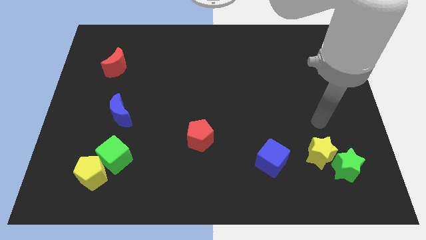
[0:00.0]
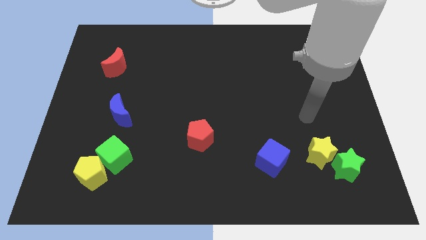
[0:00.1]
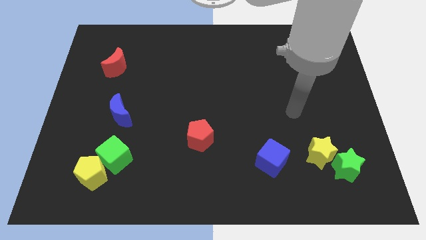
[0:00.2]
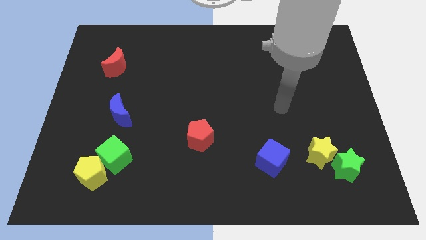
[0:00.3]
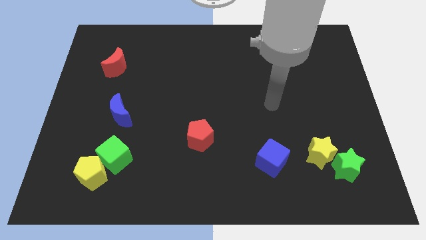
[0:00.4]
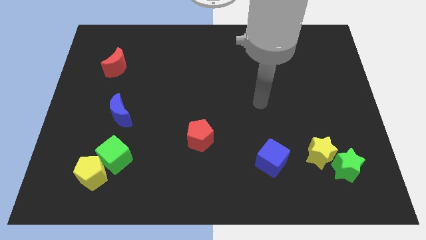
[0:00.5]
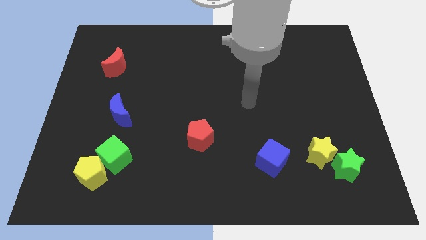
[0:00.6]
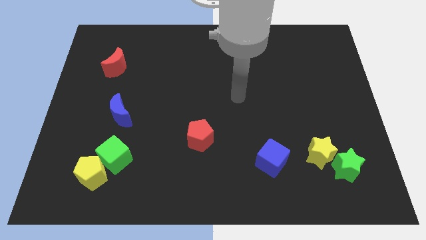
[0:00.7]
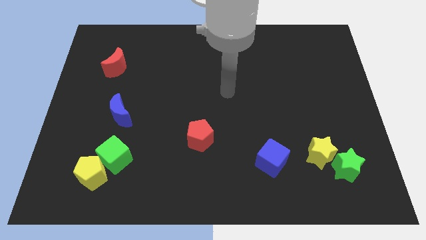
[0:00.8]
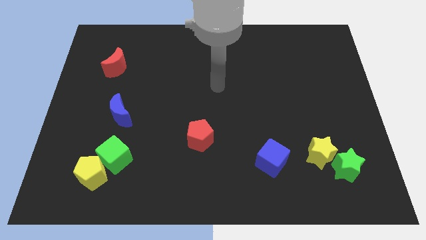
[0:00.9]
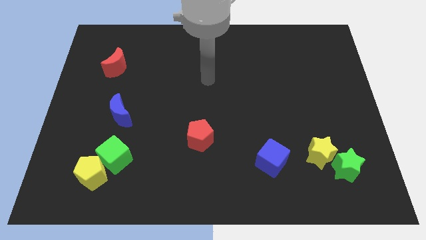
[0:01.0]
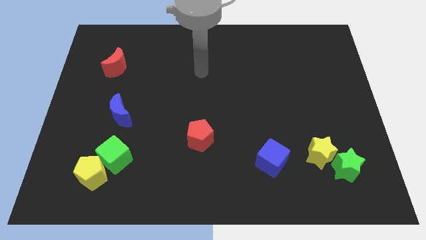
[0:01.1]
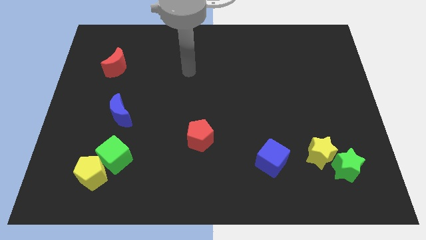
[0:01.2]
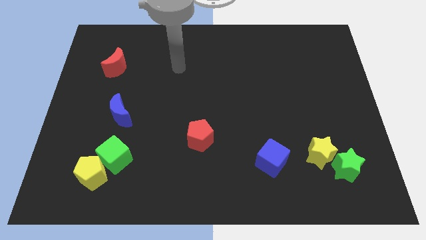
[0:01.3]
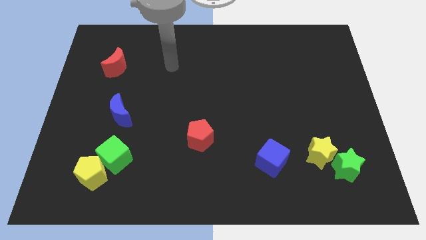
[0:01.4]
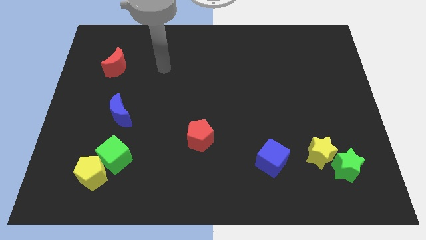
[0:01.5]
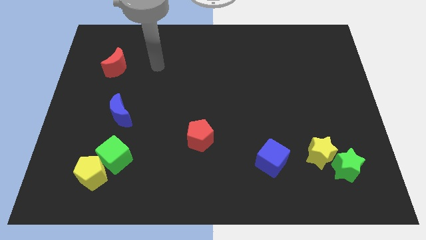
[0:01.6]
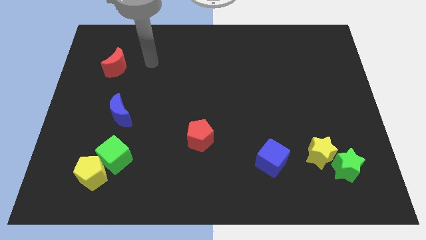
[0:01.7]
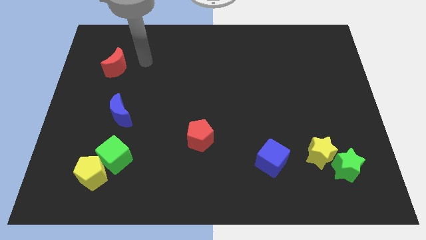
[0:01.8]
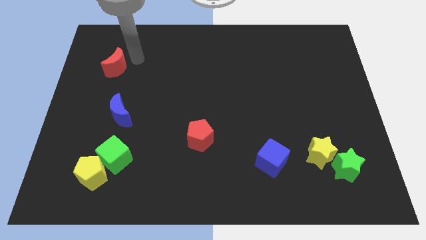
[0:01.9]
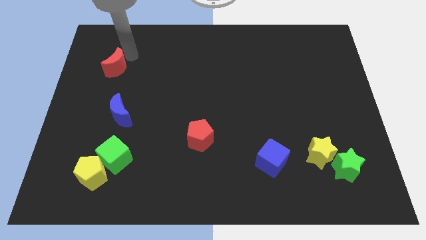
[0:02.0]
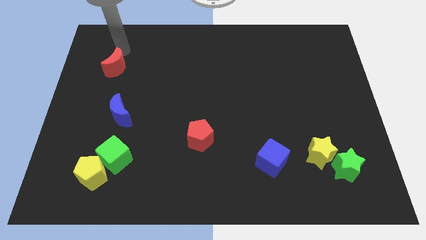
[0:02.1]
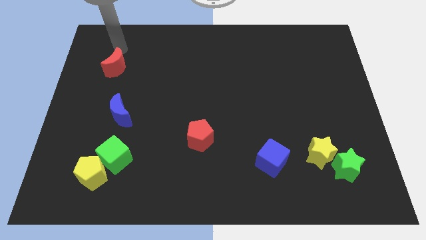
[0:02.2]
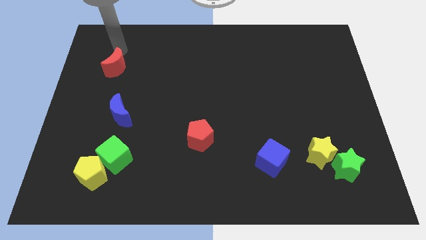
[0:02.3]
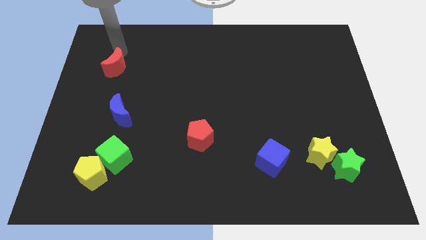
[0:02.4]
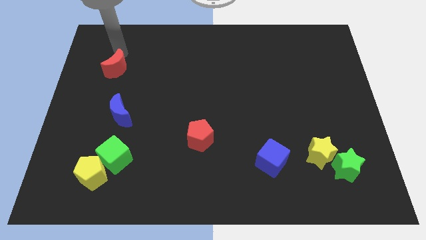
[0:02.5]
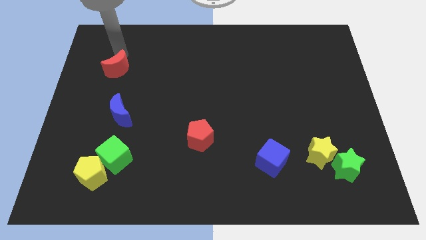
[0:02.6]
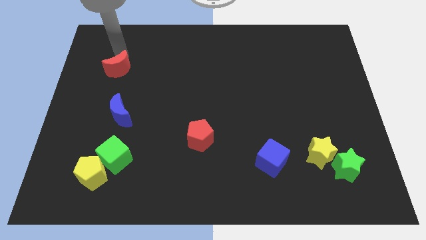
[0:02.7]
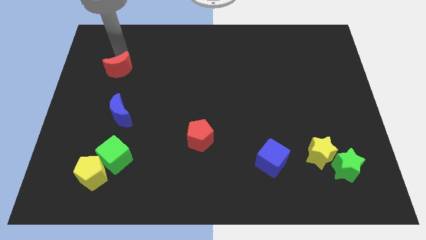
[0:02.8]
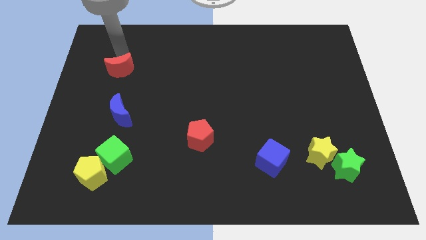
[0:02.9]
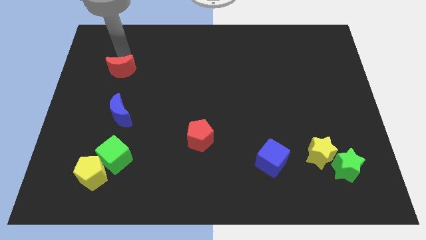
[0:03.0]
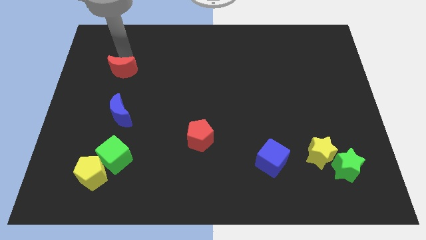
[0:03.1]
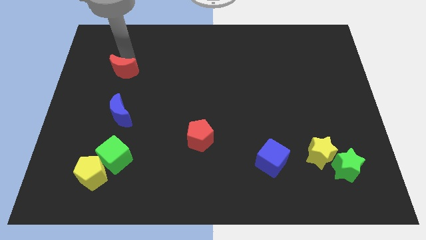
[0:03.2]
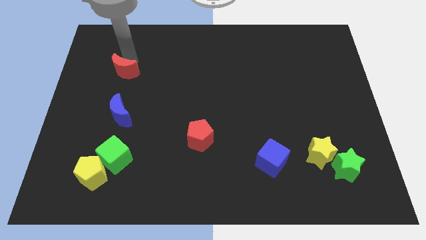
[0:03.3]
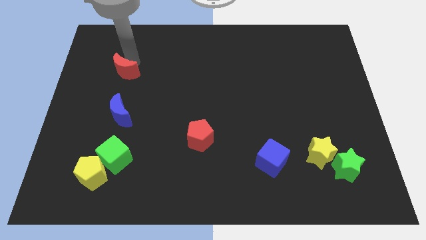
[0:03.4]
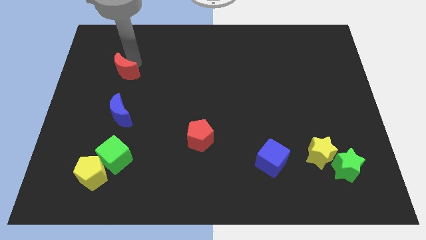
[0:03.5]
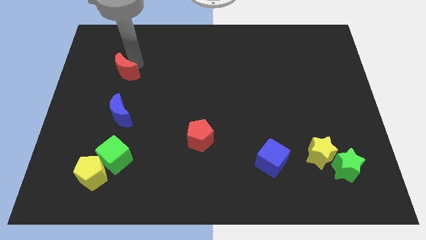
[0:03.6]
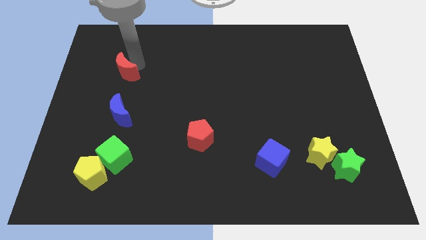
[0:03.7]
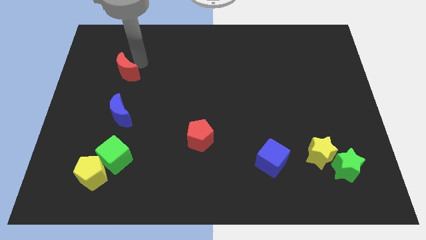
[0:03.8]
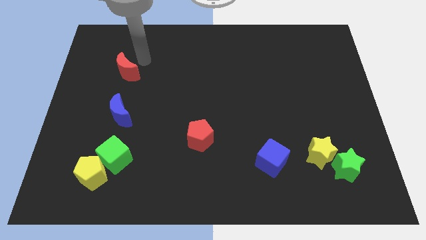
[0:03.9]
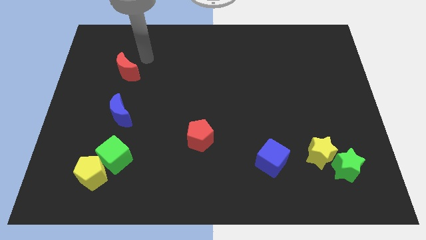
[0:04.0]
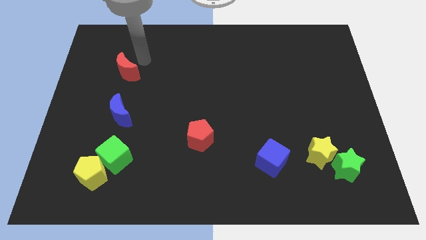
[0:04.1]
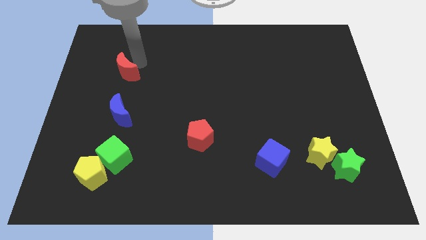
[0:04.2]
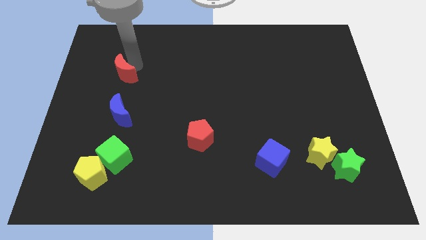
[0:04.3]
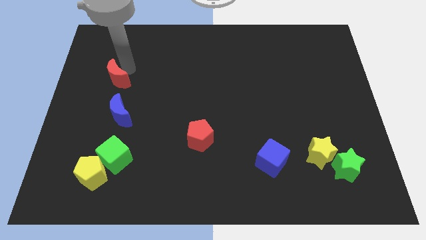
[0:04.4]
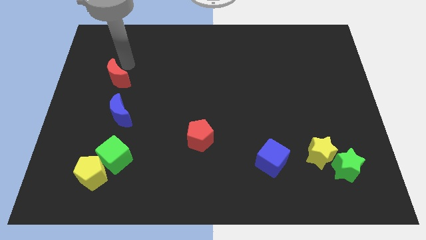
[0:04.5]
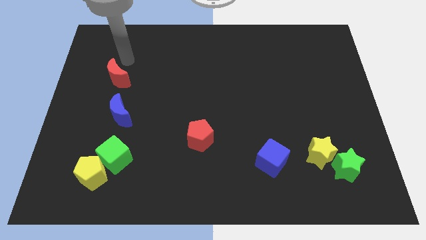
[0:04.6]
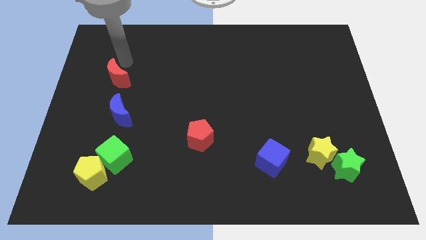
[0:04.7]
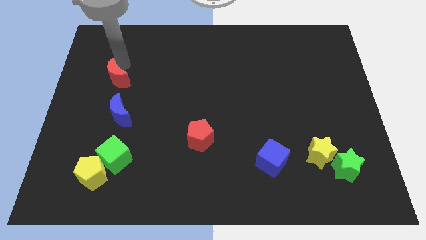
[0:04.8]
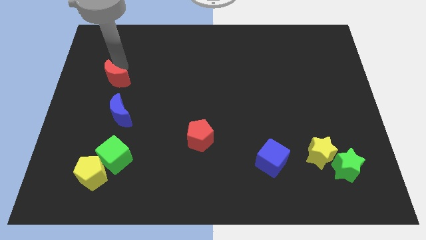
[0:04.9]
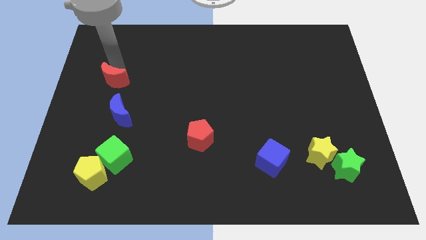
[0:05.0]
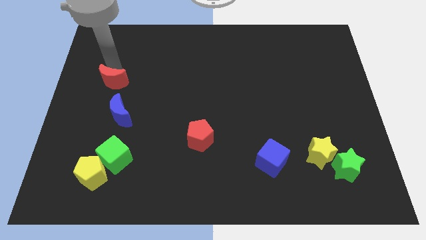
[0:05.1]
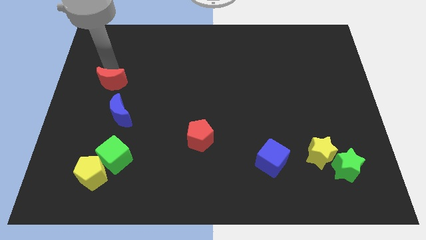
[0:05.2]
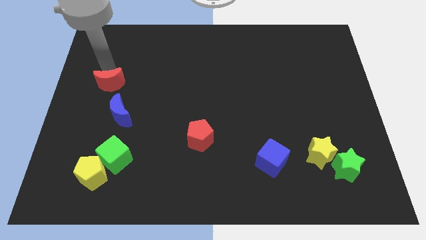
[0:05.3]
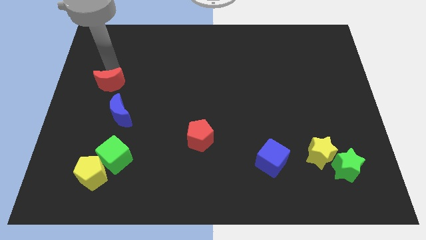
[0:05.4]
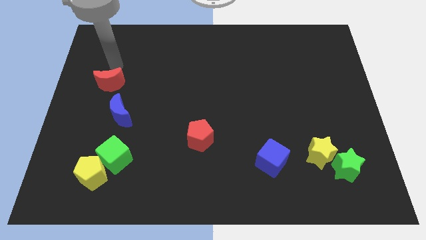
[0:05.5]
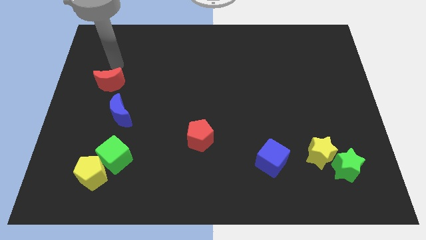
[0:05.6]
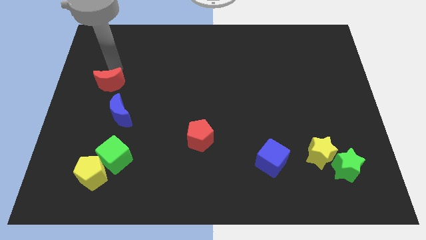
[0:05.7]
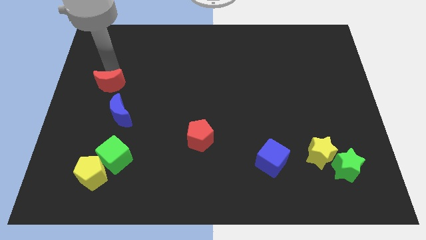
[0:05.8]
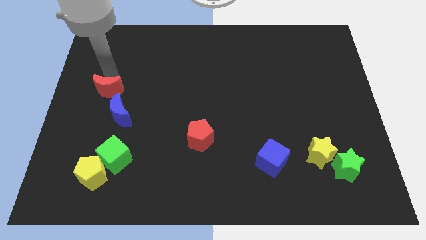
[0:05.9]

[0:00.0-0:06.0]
slide the red moon down a little

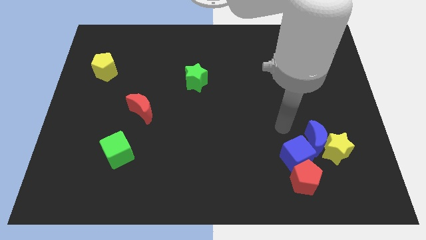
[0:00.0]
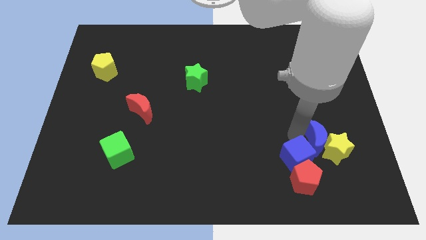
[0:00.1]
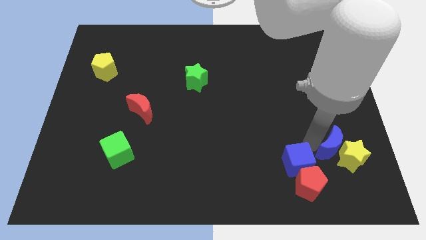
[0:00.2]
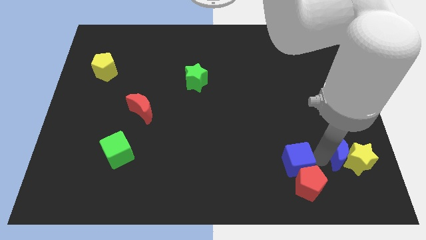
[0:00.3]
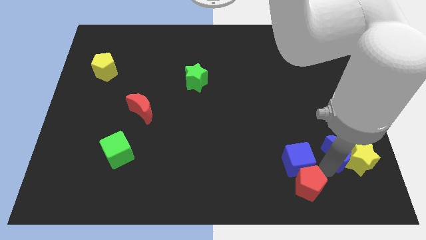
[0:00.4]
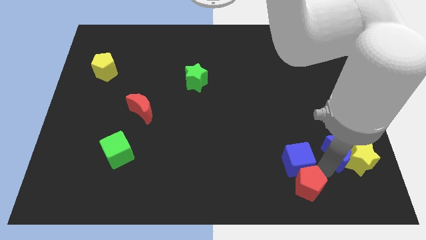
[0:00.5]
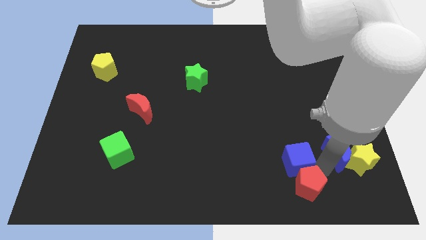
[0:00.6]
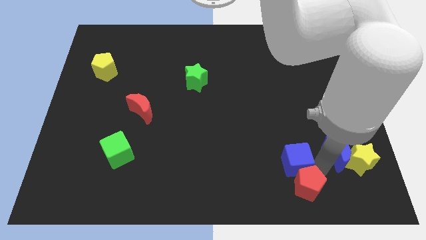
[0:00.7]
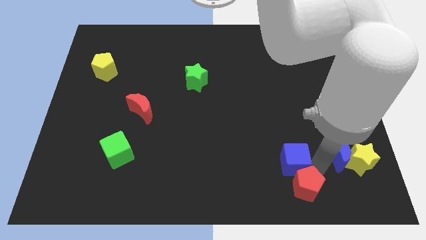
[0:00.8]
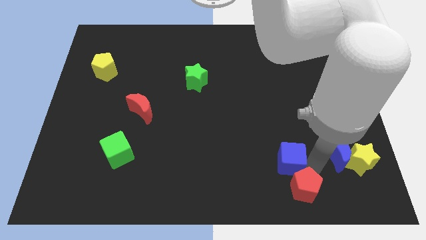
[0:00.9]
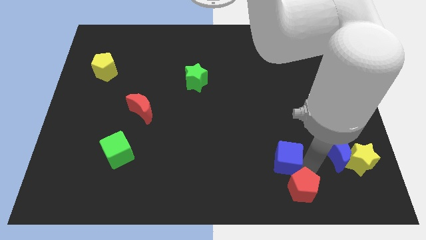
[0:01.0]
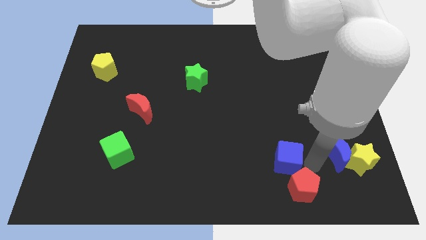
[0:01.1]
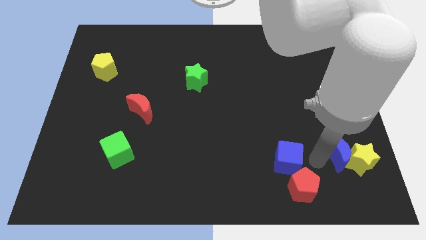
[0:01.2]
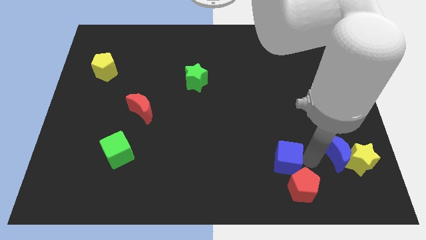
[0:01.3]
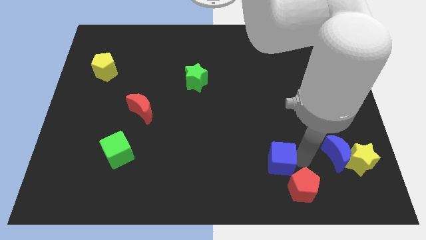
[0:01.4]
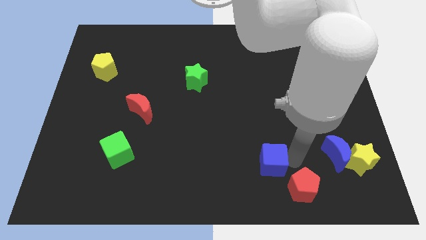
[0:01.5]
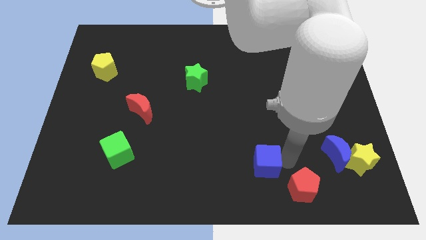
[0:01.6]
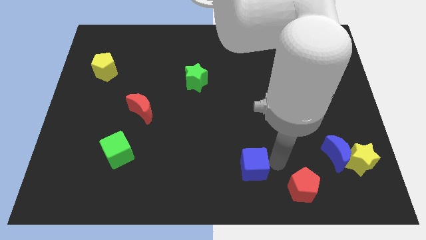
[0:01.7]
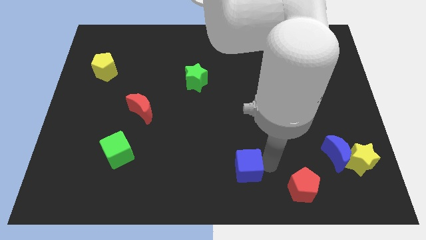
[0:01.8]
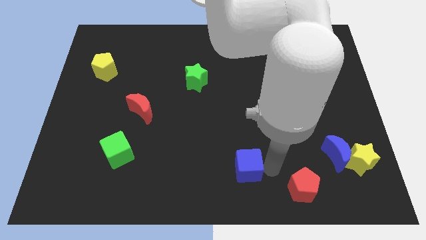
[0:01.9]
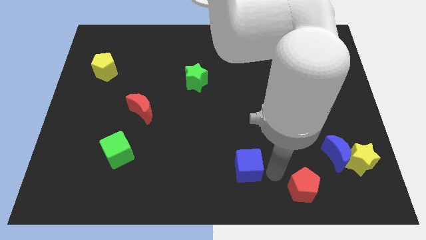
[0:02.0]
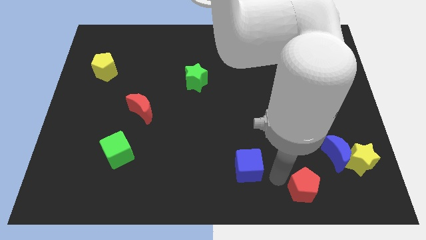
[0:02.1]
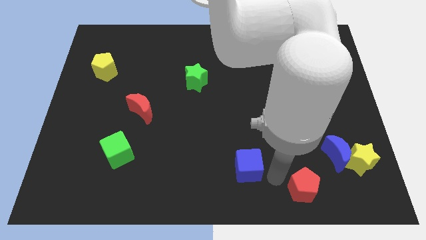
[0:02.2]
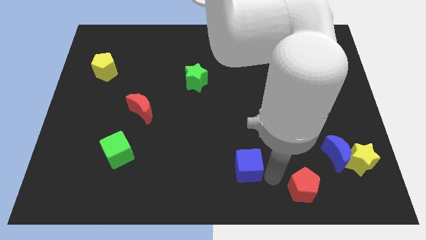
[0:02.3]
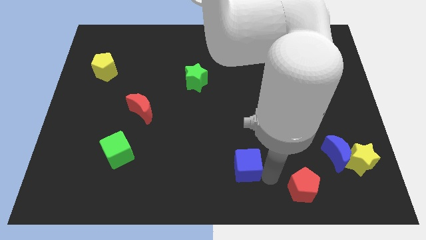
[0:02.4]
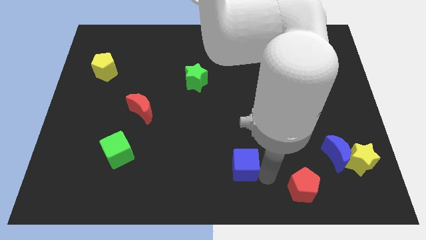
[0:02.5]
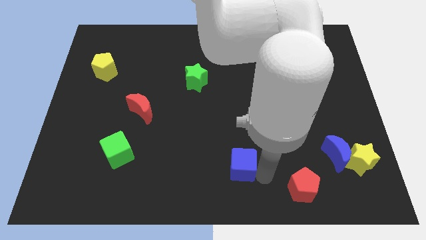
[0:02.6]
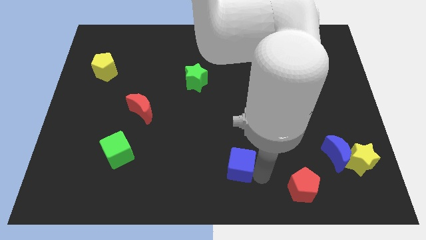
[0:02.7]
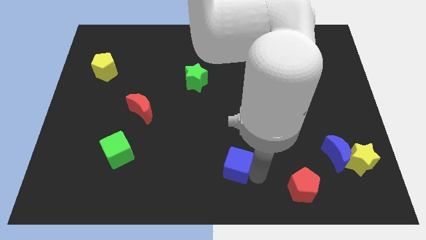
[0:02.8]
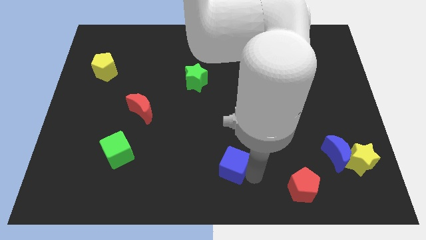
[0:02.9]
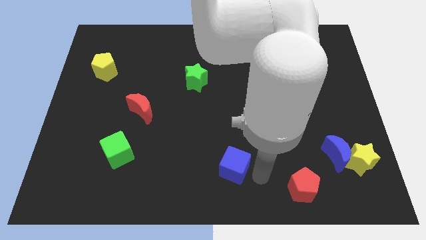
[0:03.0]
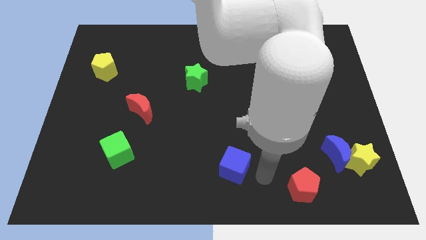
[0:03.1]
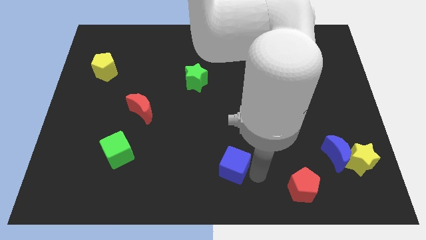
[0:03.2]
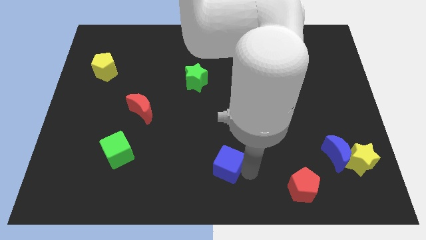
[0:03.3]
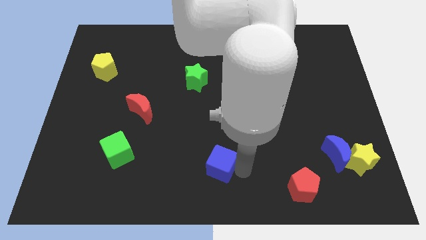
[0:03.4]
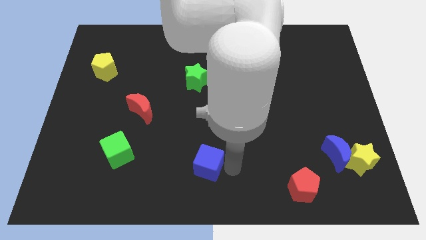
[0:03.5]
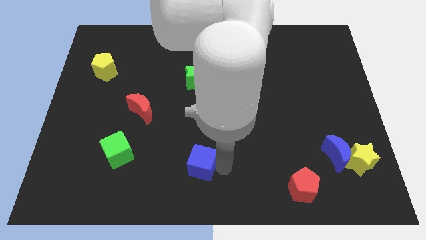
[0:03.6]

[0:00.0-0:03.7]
push the blue cube to the left
